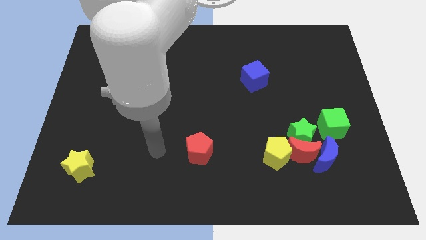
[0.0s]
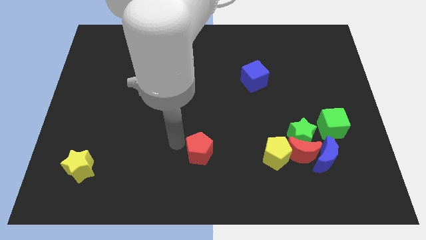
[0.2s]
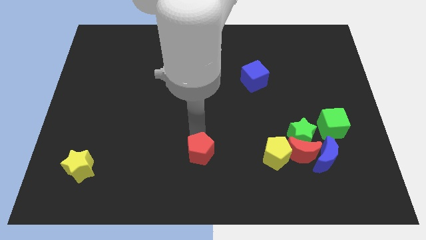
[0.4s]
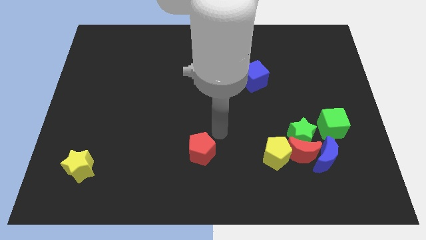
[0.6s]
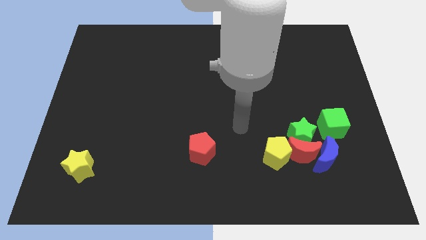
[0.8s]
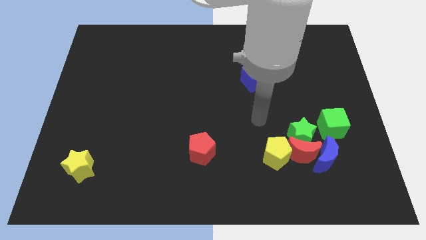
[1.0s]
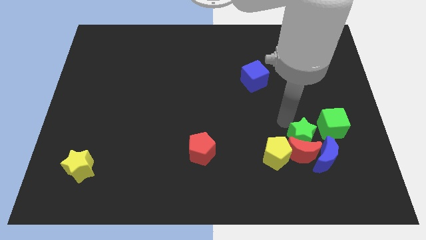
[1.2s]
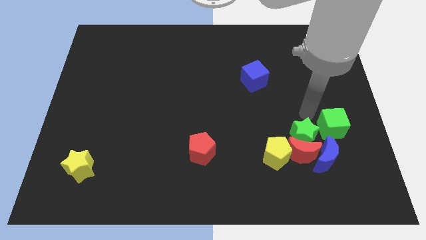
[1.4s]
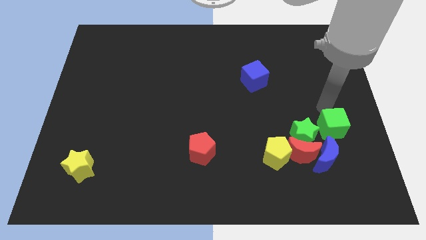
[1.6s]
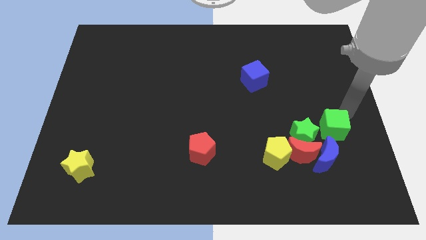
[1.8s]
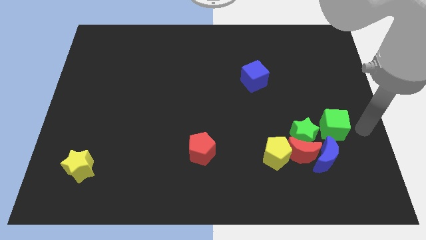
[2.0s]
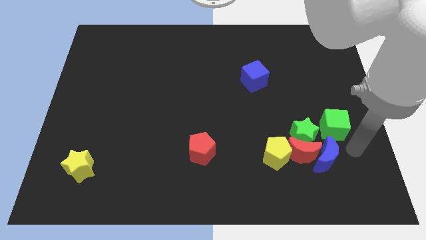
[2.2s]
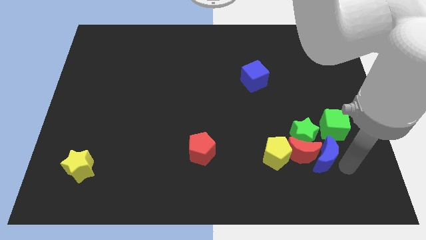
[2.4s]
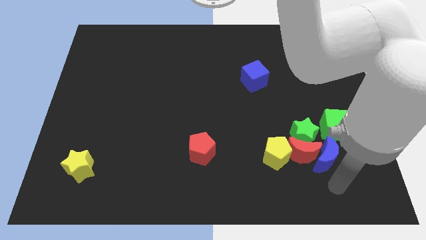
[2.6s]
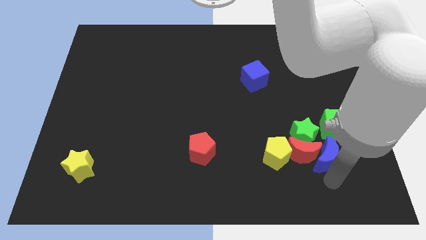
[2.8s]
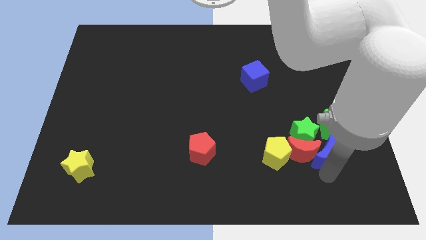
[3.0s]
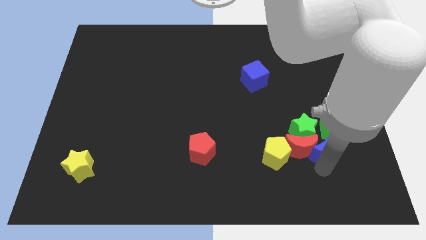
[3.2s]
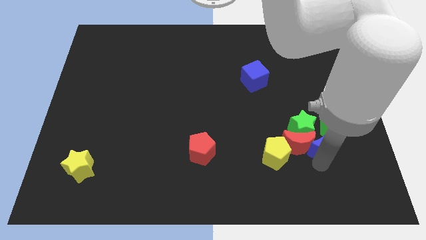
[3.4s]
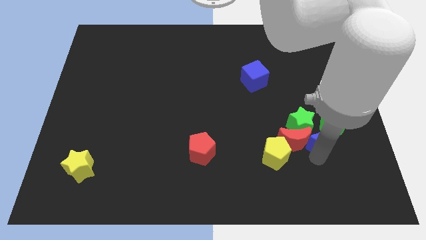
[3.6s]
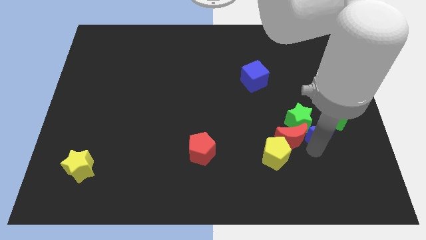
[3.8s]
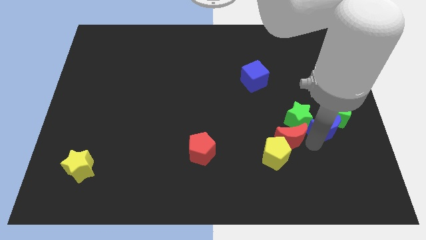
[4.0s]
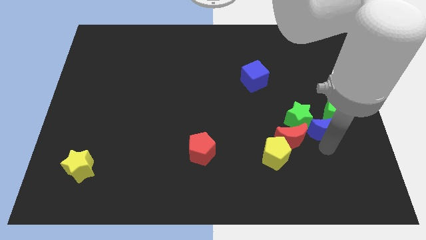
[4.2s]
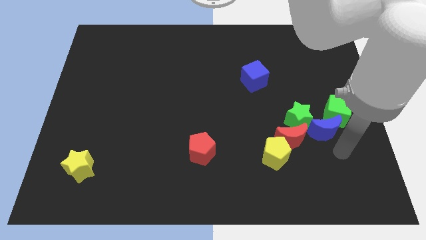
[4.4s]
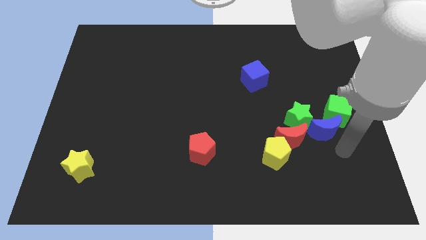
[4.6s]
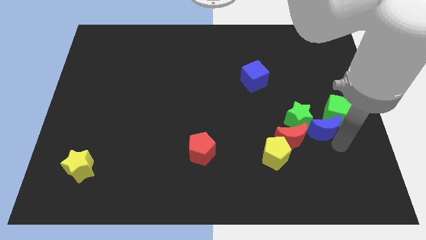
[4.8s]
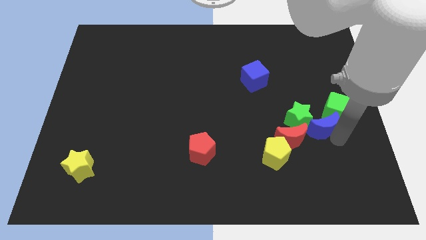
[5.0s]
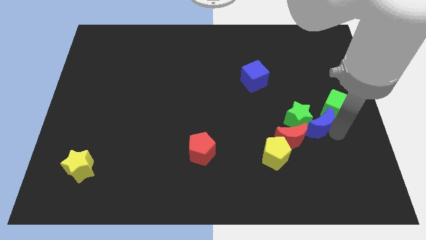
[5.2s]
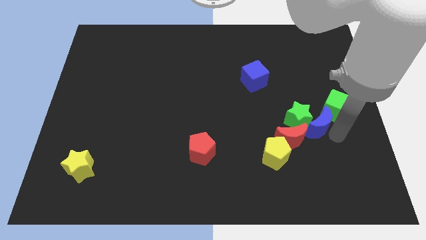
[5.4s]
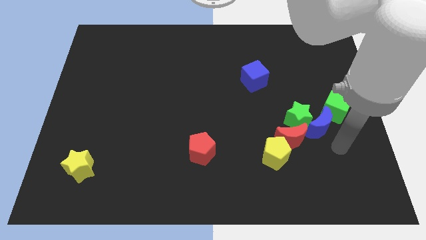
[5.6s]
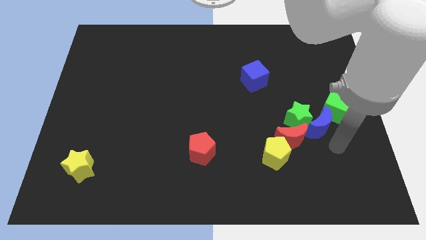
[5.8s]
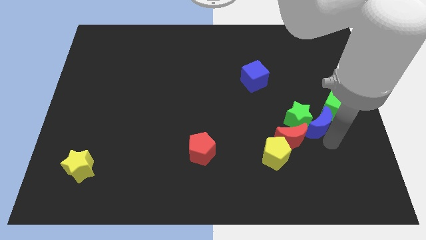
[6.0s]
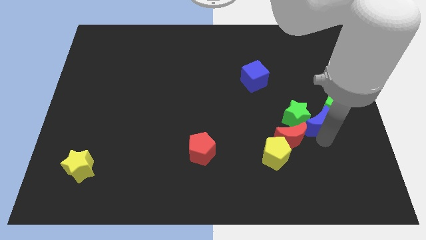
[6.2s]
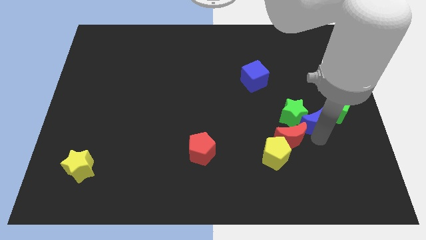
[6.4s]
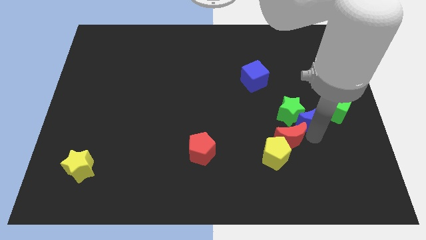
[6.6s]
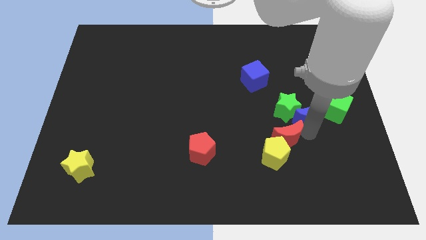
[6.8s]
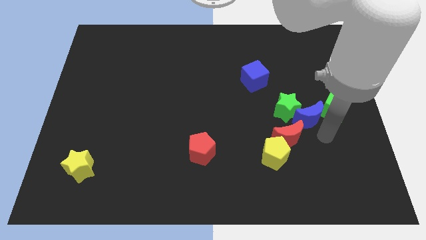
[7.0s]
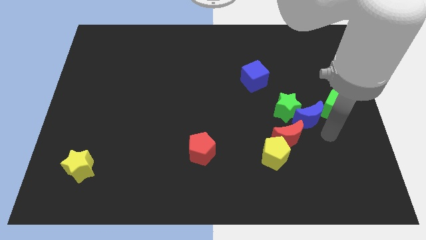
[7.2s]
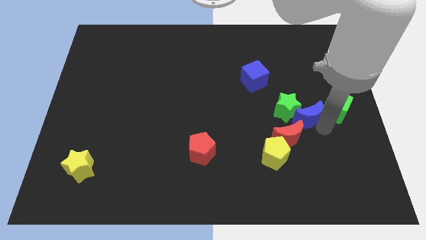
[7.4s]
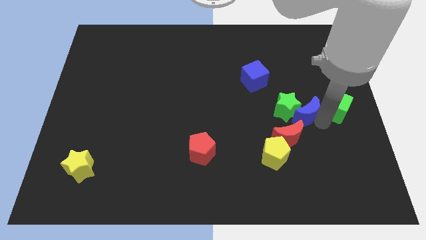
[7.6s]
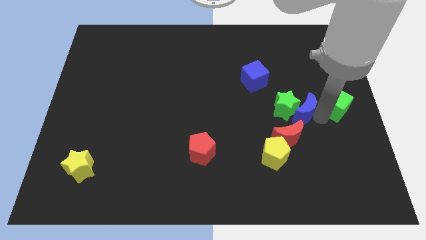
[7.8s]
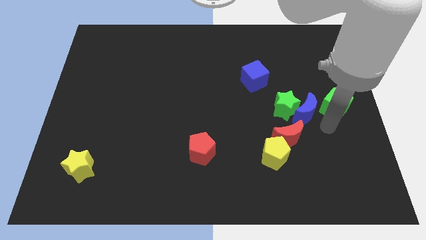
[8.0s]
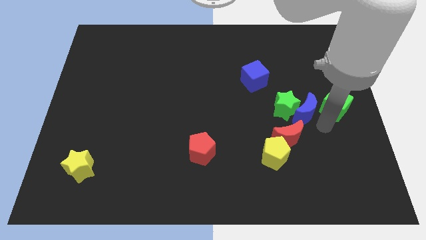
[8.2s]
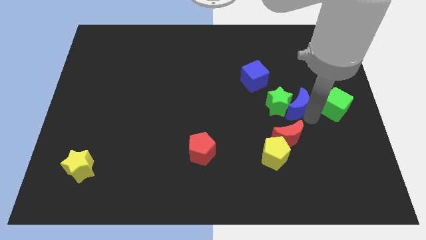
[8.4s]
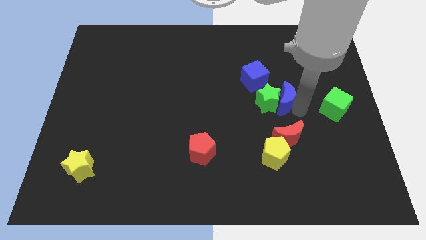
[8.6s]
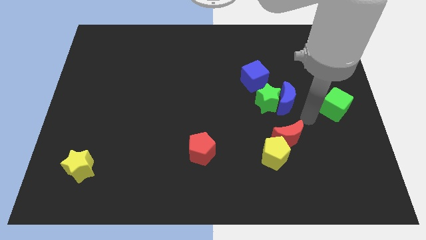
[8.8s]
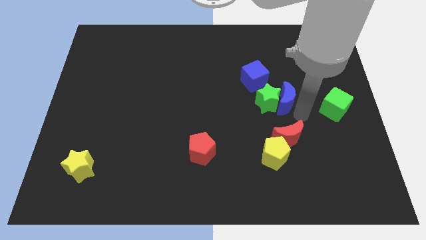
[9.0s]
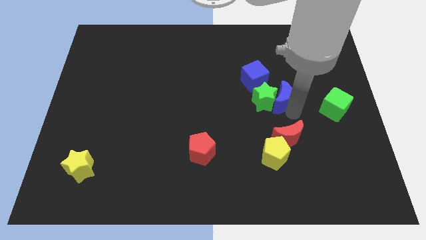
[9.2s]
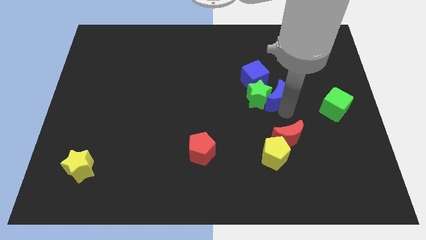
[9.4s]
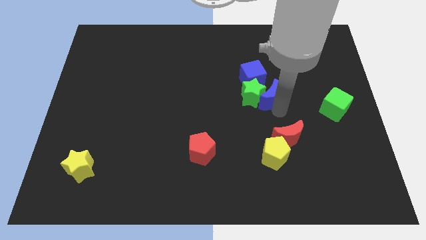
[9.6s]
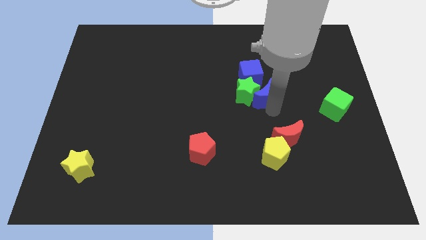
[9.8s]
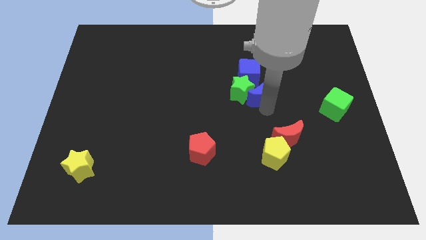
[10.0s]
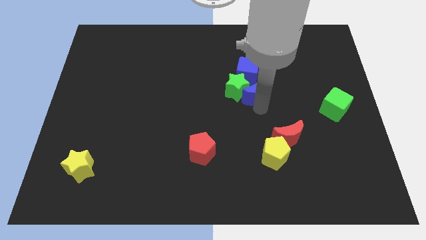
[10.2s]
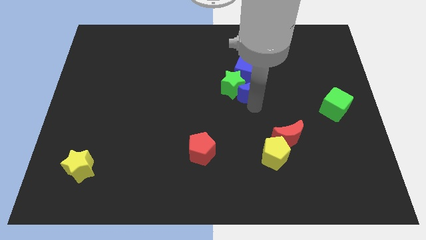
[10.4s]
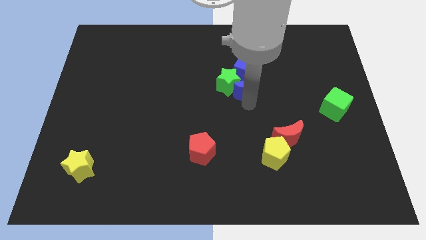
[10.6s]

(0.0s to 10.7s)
move the blue moon towards the blue cube

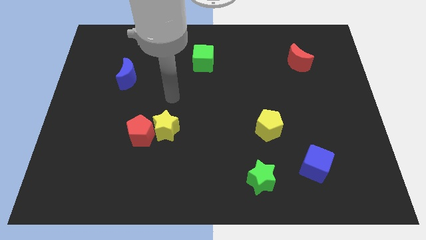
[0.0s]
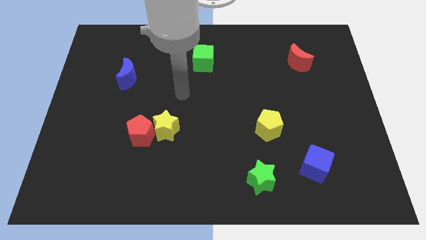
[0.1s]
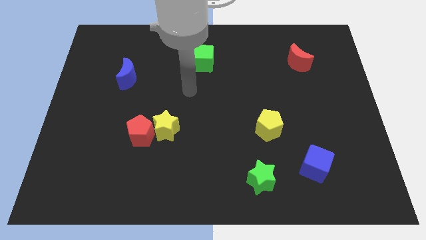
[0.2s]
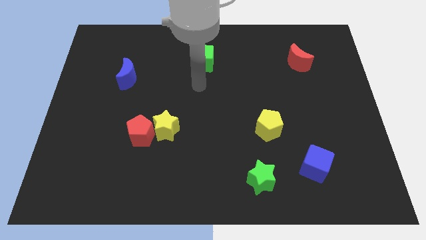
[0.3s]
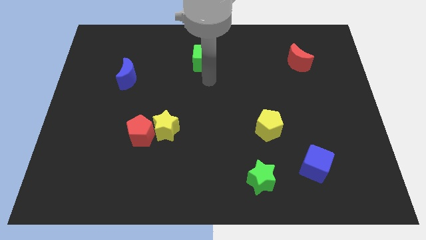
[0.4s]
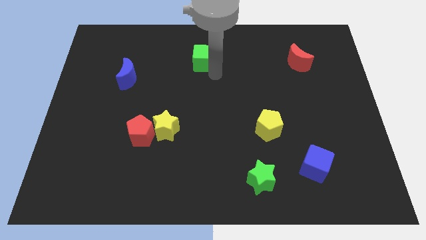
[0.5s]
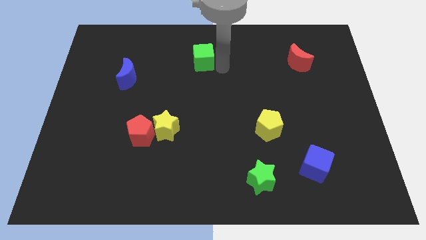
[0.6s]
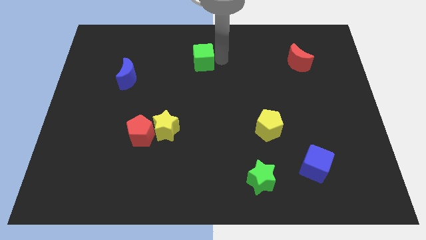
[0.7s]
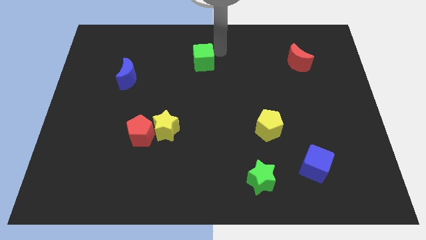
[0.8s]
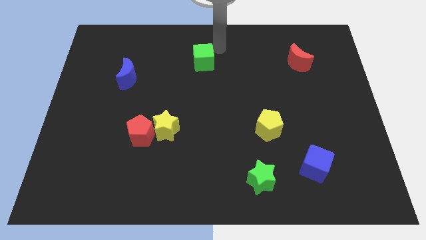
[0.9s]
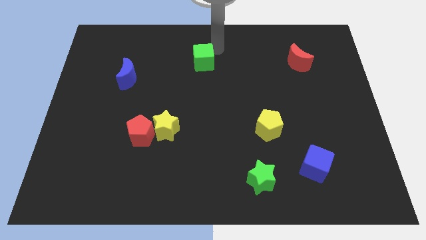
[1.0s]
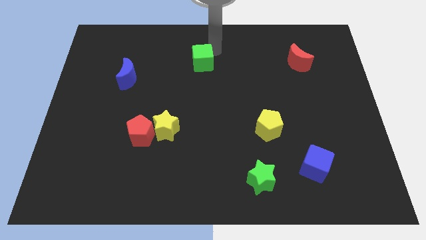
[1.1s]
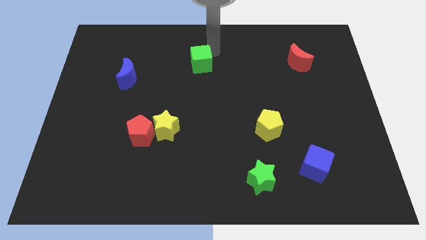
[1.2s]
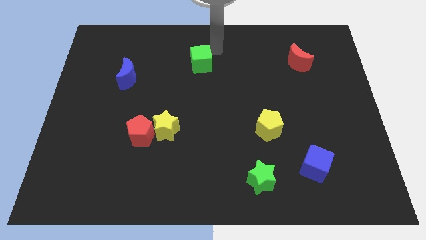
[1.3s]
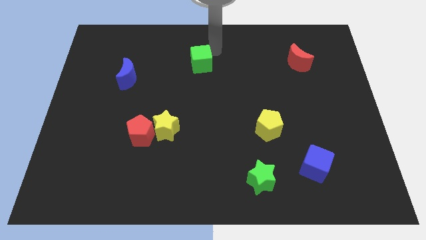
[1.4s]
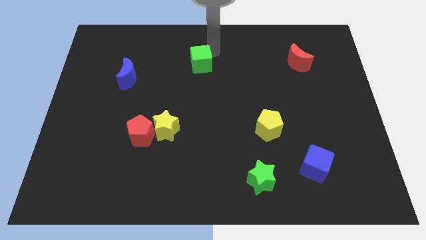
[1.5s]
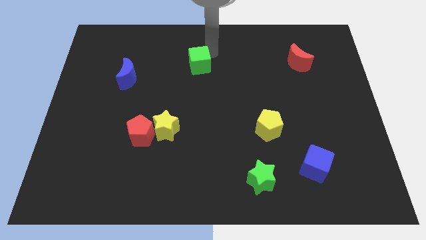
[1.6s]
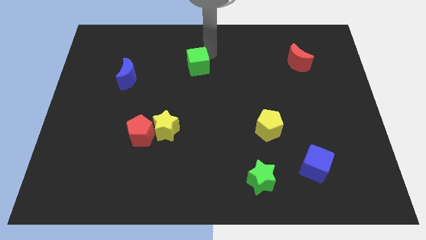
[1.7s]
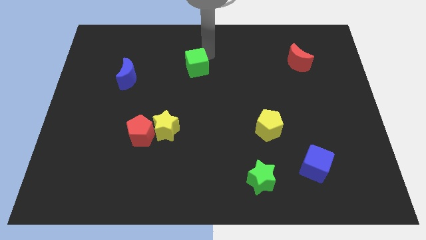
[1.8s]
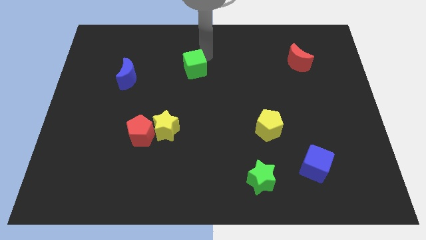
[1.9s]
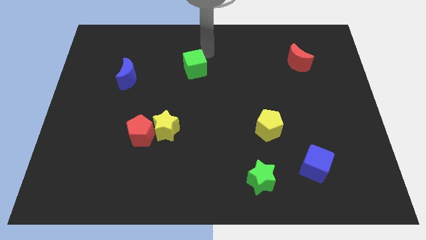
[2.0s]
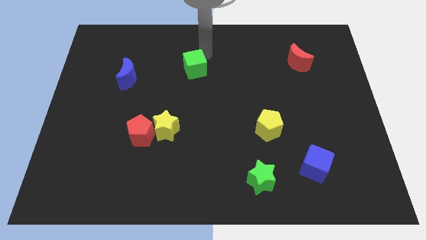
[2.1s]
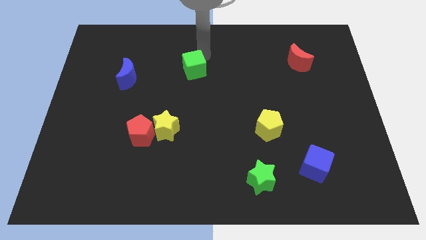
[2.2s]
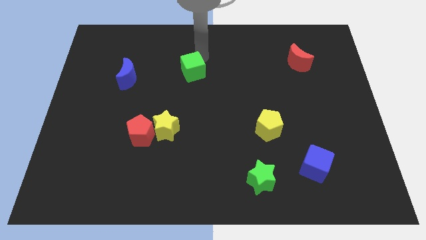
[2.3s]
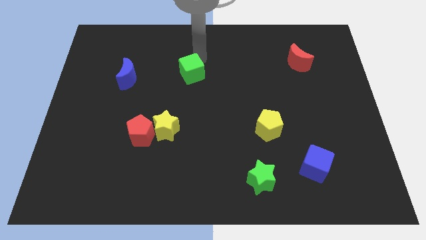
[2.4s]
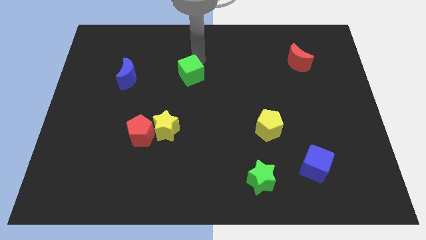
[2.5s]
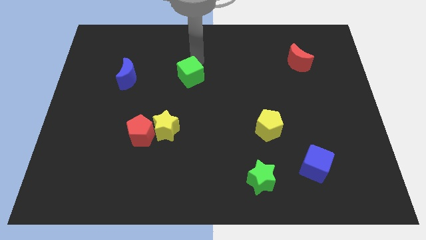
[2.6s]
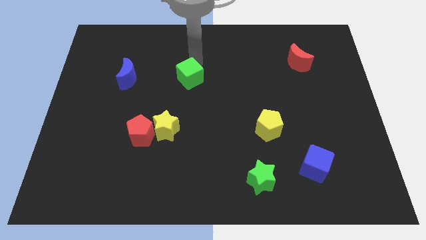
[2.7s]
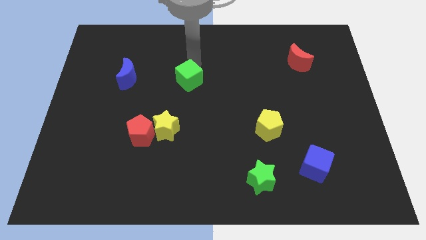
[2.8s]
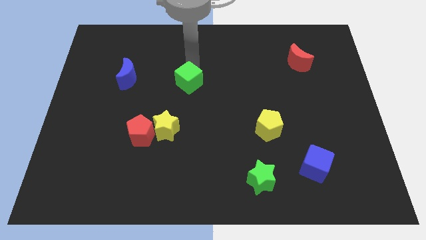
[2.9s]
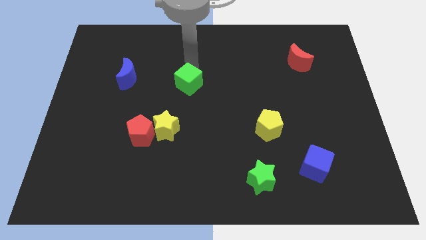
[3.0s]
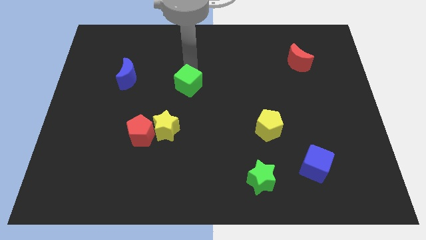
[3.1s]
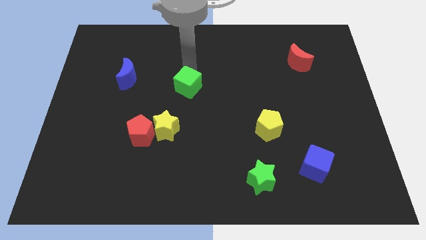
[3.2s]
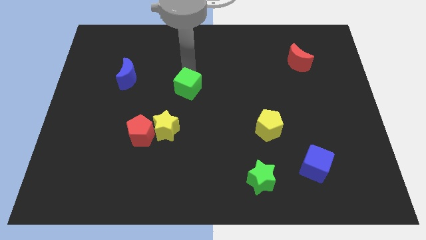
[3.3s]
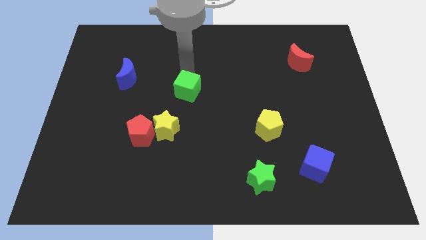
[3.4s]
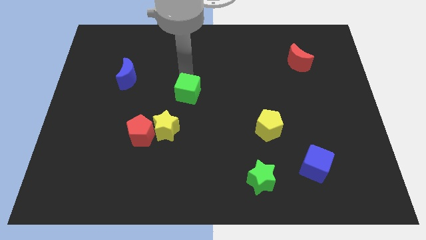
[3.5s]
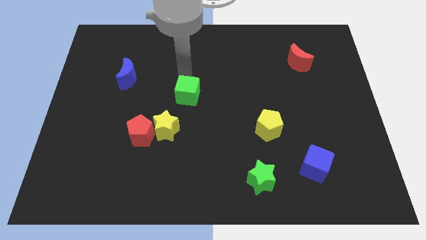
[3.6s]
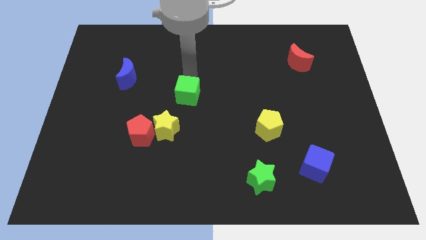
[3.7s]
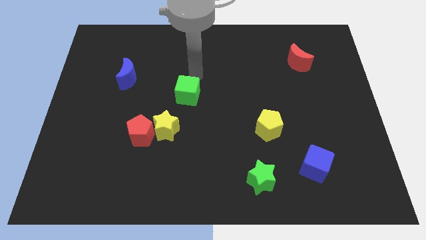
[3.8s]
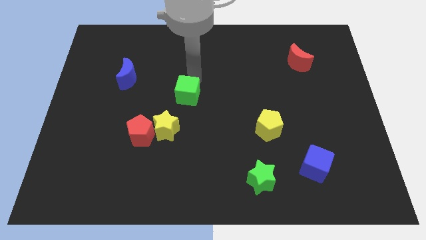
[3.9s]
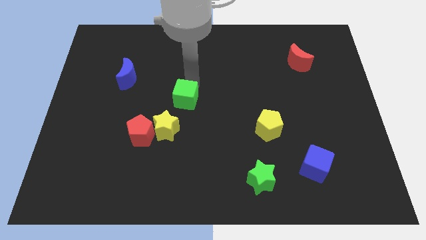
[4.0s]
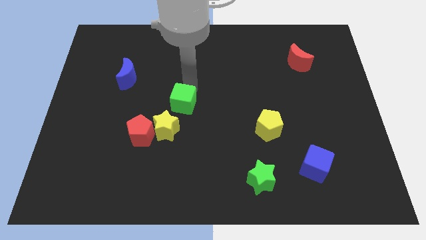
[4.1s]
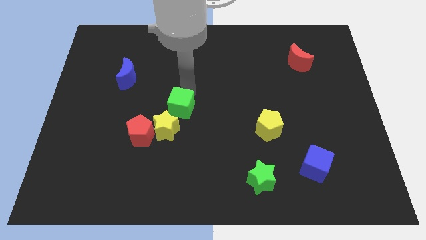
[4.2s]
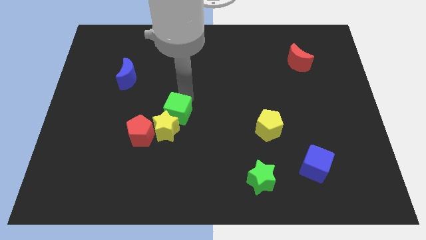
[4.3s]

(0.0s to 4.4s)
slide the green cube close to the yellow star
